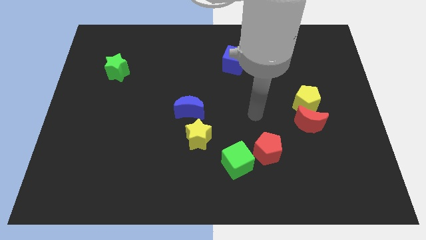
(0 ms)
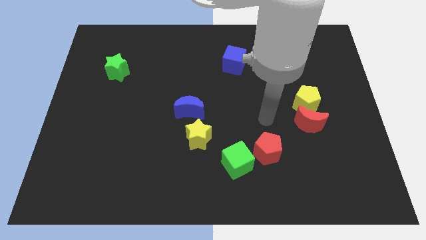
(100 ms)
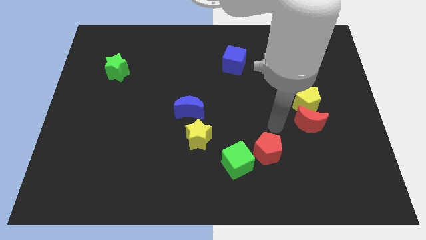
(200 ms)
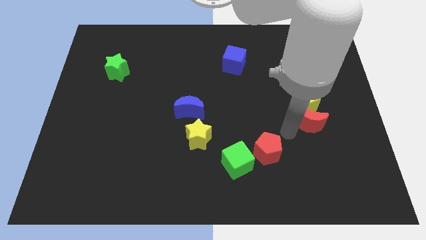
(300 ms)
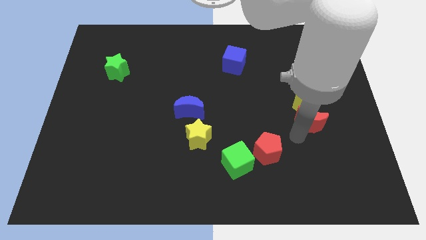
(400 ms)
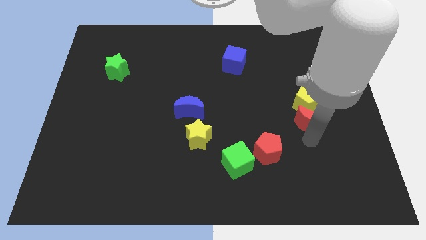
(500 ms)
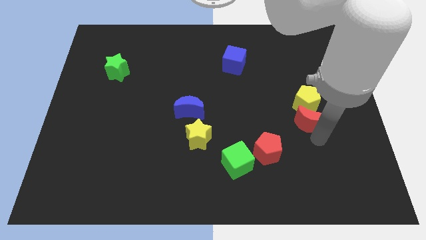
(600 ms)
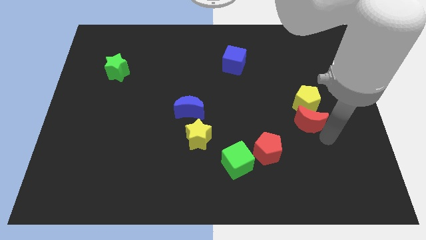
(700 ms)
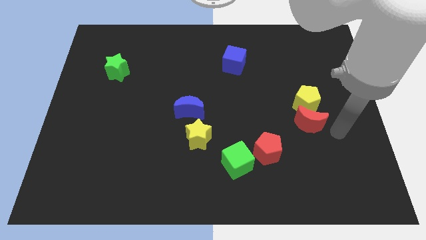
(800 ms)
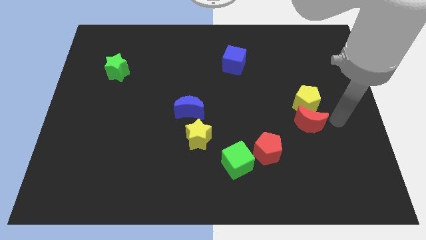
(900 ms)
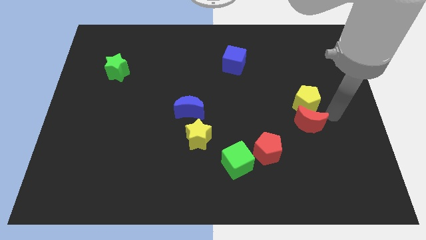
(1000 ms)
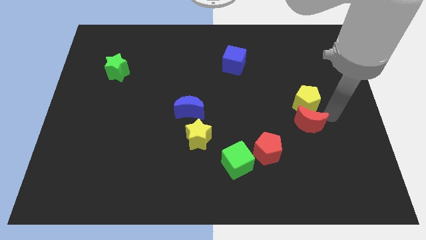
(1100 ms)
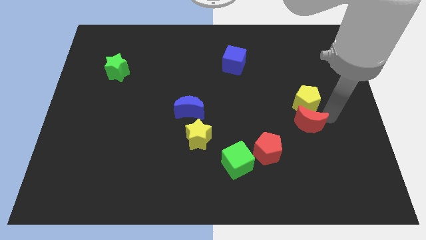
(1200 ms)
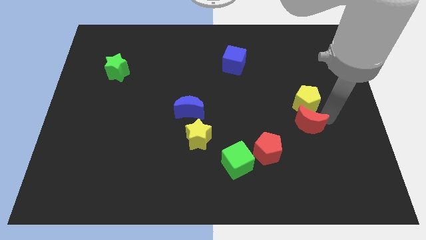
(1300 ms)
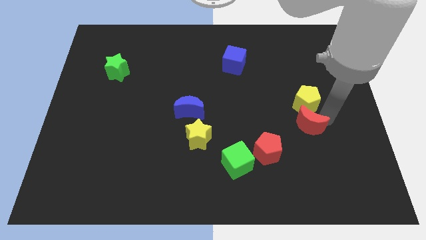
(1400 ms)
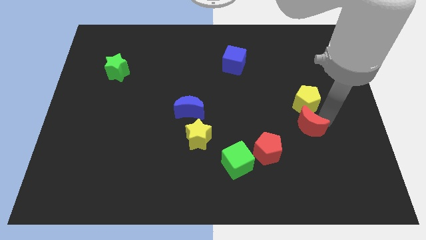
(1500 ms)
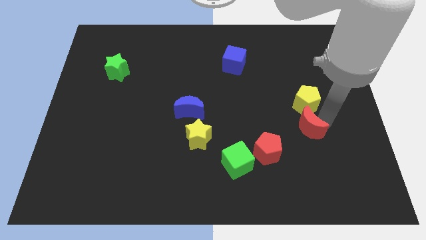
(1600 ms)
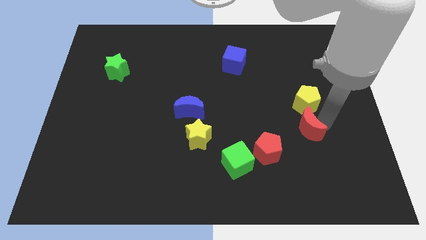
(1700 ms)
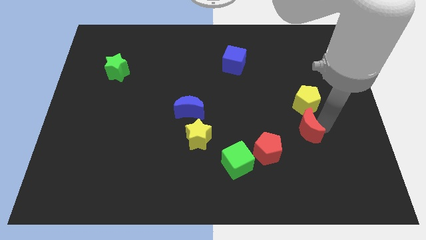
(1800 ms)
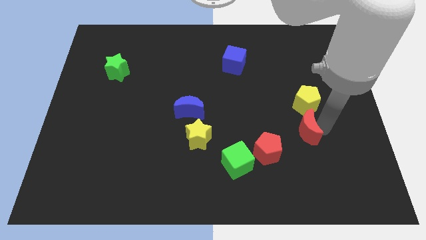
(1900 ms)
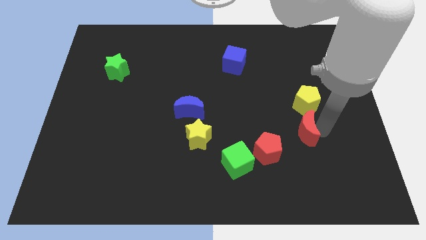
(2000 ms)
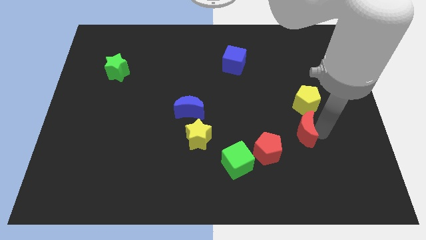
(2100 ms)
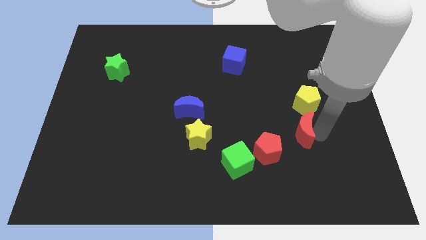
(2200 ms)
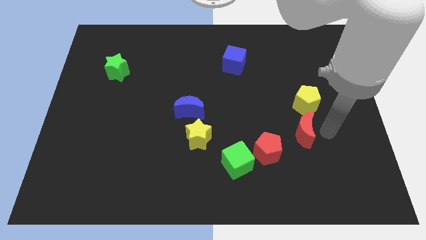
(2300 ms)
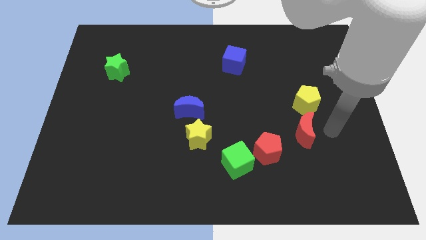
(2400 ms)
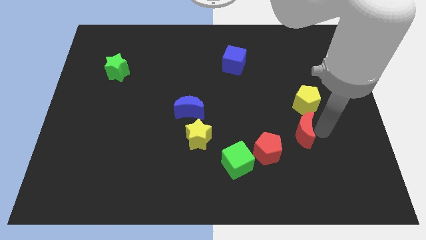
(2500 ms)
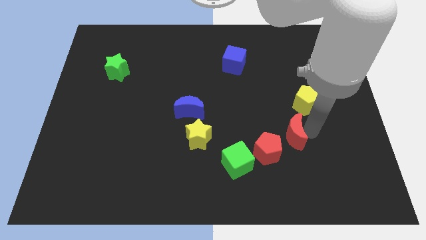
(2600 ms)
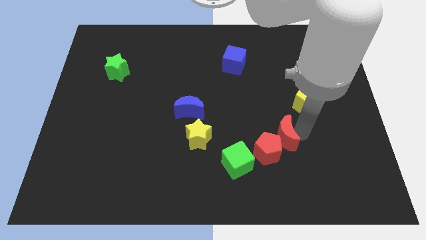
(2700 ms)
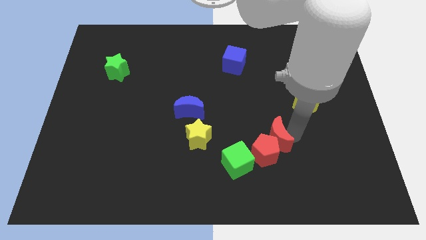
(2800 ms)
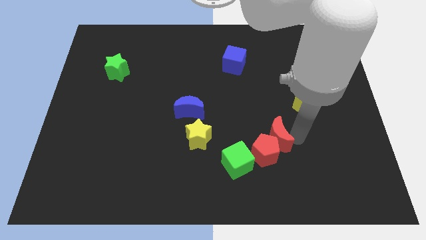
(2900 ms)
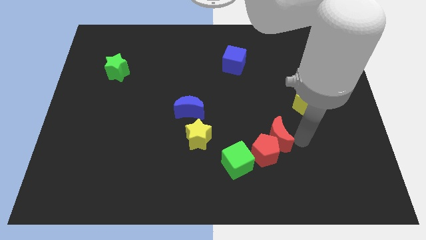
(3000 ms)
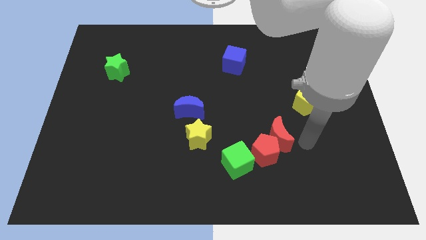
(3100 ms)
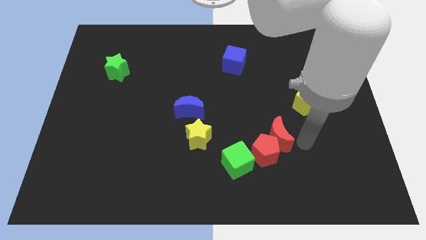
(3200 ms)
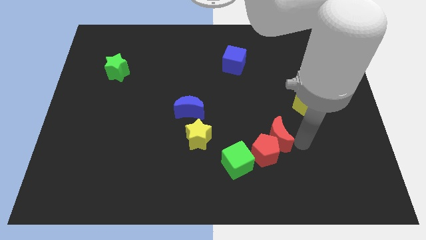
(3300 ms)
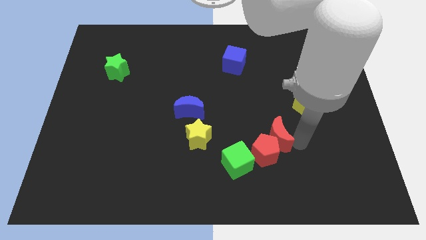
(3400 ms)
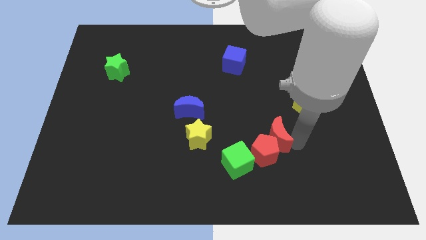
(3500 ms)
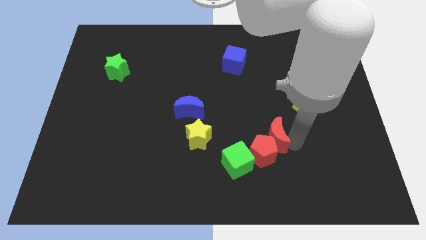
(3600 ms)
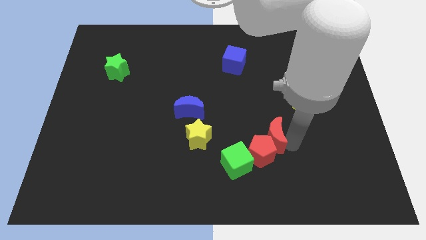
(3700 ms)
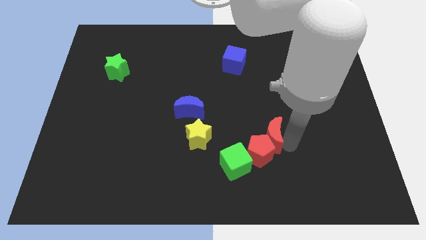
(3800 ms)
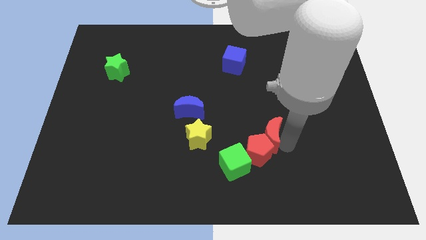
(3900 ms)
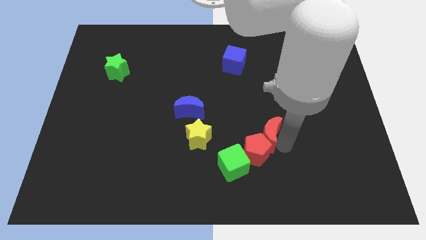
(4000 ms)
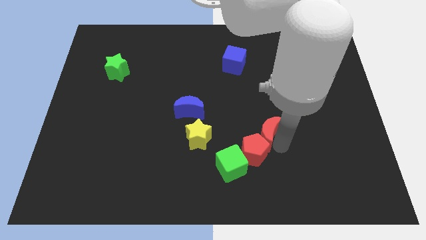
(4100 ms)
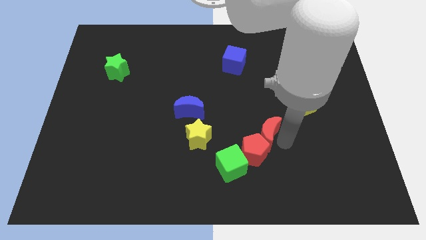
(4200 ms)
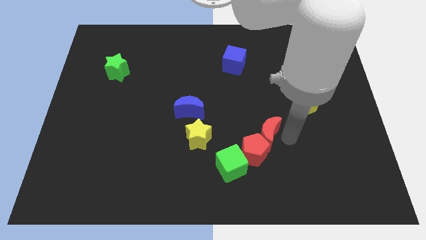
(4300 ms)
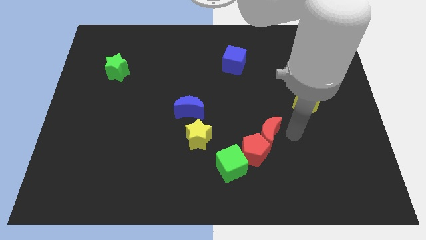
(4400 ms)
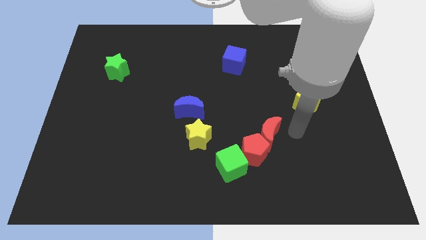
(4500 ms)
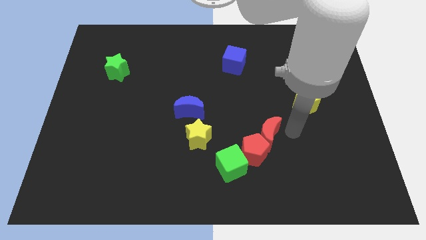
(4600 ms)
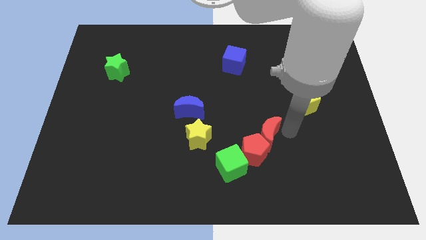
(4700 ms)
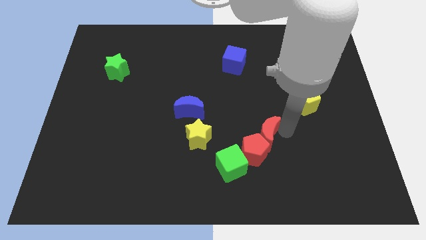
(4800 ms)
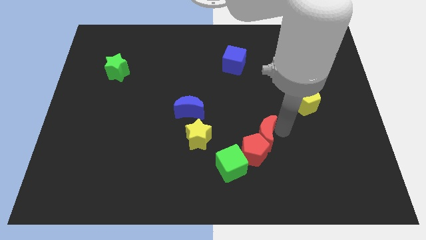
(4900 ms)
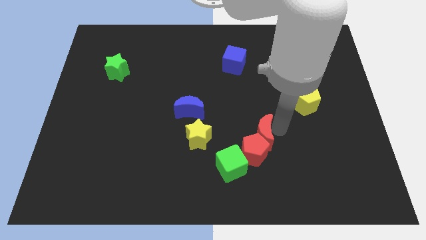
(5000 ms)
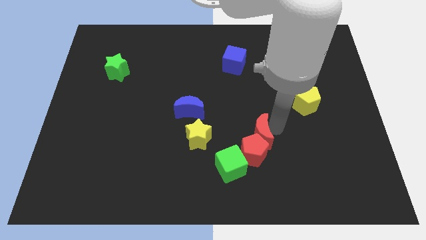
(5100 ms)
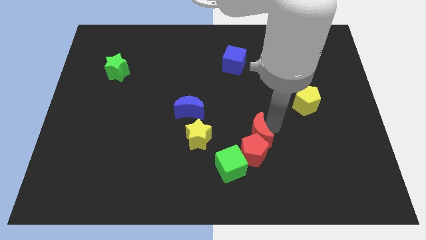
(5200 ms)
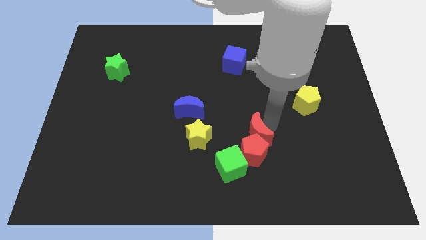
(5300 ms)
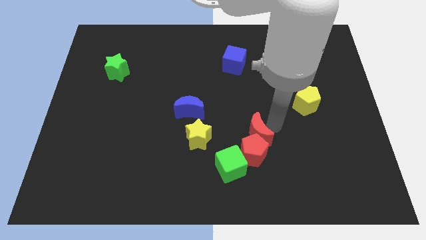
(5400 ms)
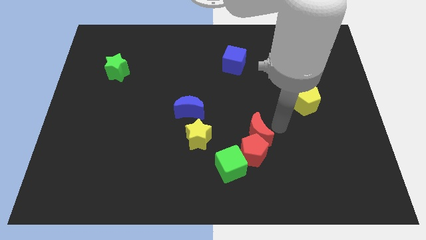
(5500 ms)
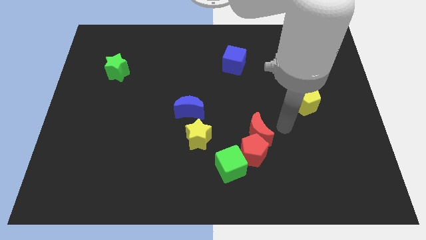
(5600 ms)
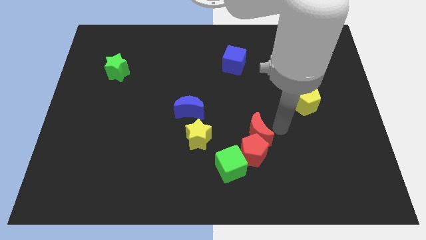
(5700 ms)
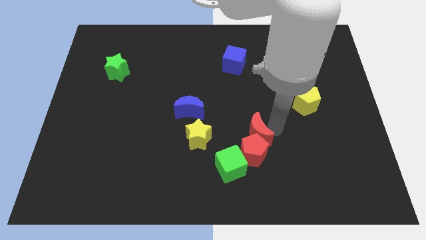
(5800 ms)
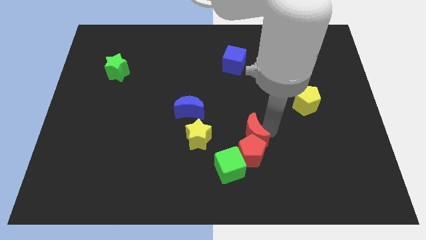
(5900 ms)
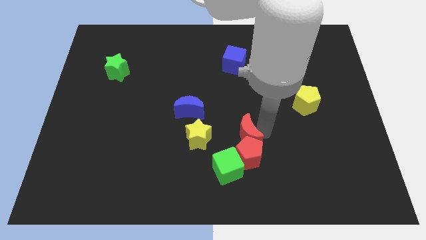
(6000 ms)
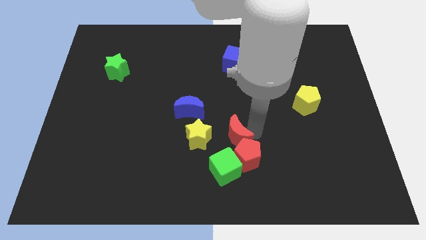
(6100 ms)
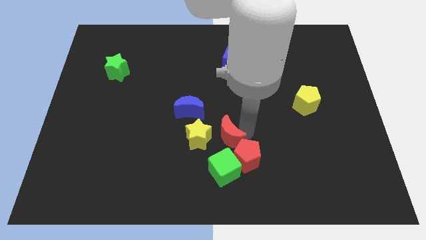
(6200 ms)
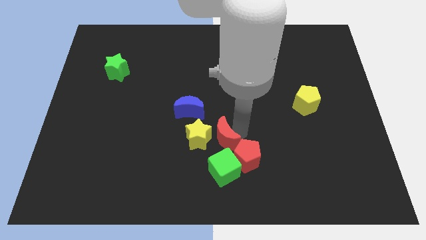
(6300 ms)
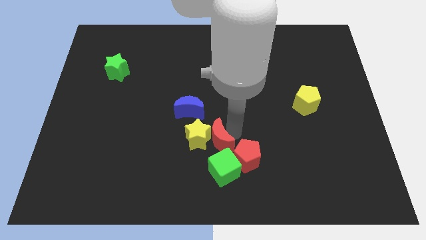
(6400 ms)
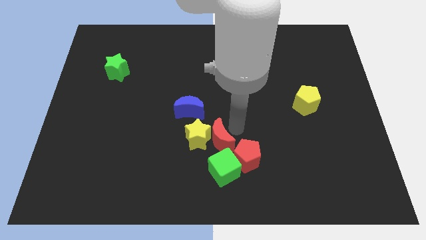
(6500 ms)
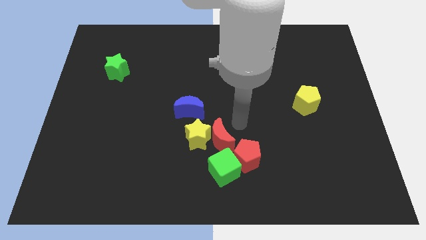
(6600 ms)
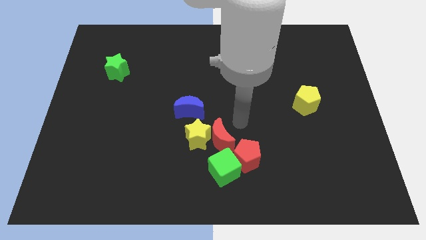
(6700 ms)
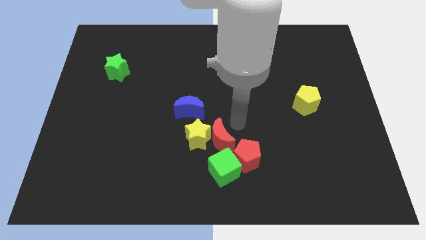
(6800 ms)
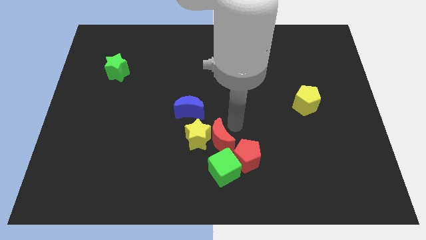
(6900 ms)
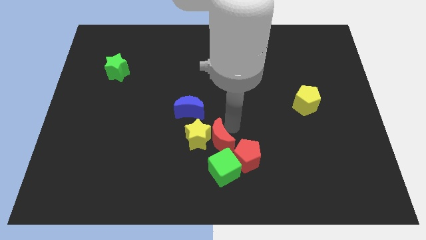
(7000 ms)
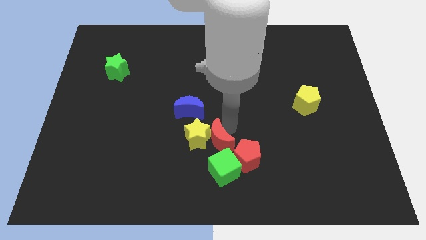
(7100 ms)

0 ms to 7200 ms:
slide the red moon to the left

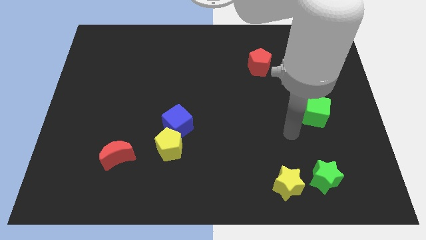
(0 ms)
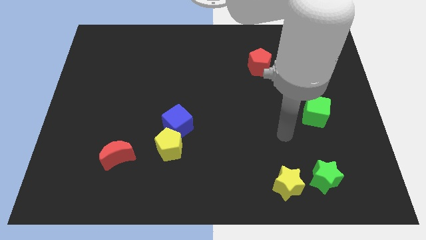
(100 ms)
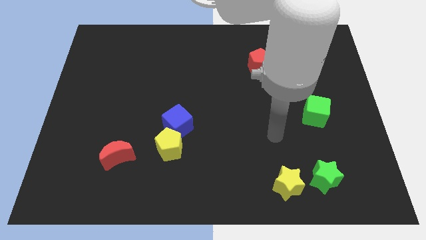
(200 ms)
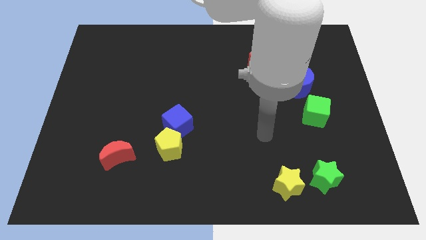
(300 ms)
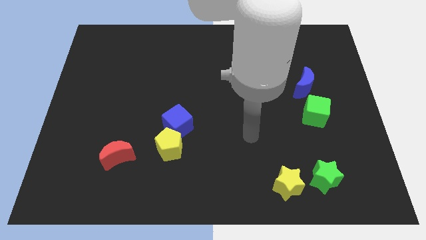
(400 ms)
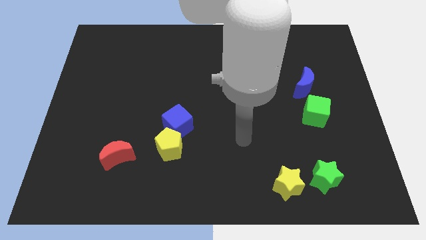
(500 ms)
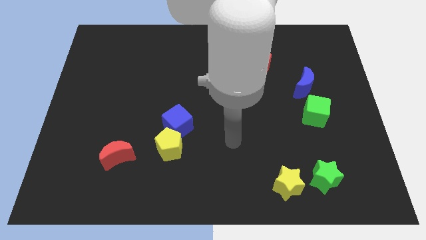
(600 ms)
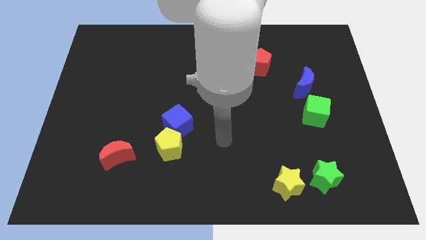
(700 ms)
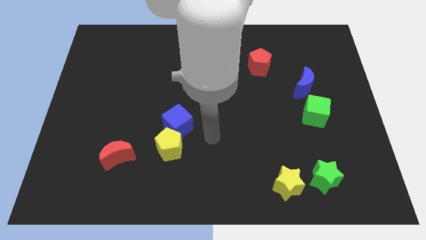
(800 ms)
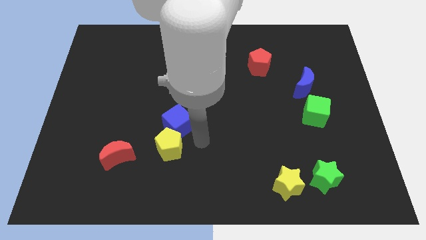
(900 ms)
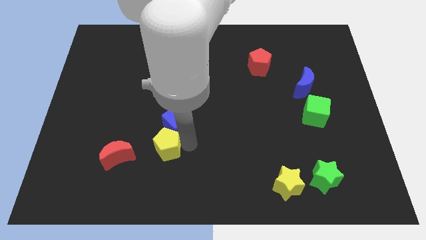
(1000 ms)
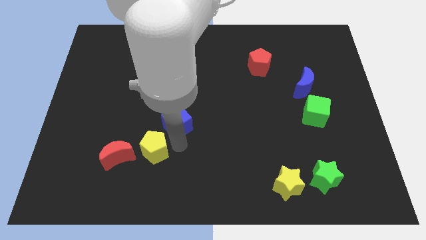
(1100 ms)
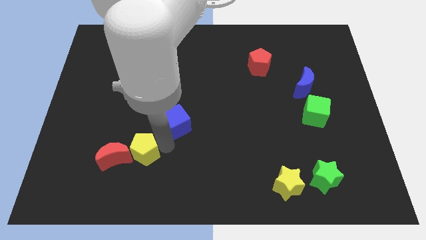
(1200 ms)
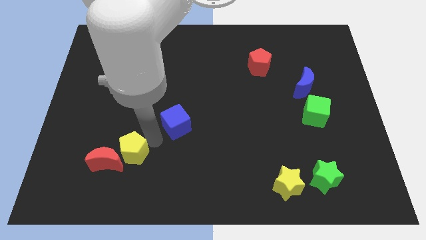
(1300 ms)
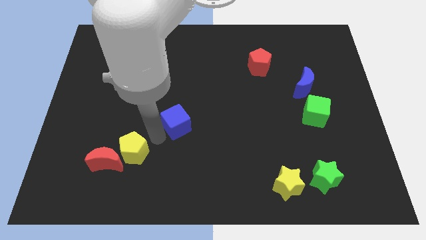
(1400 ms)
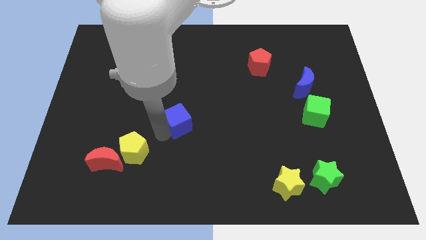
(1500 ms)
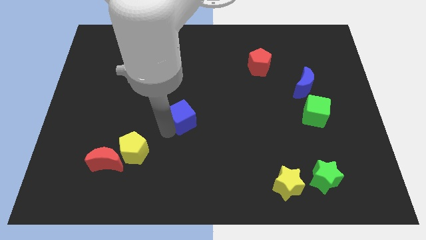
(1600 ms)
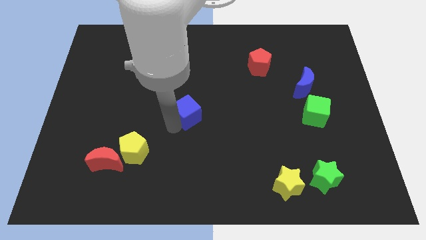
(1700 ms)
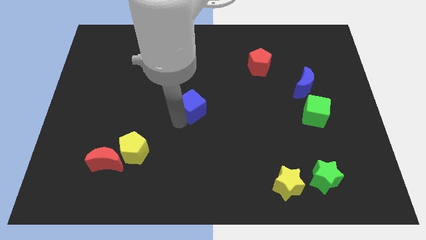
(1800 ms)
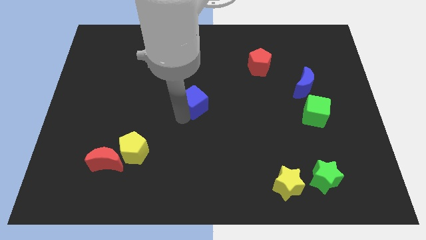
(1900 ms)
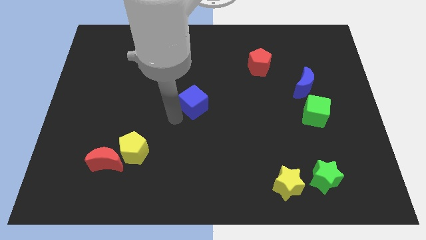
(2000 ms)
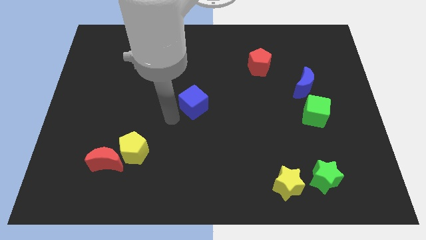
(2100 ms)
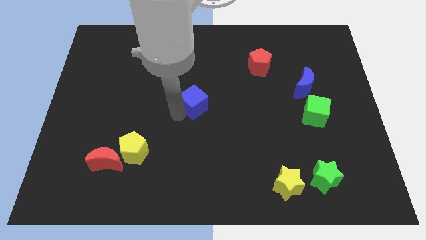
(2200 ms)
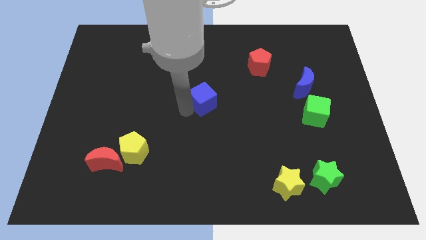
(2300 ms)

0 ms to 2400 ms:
push the blue cube a little bit up and then to the right
